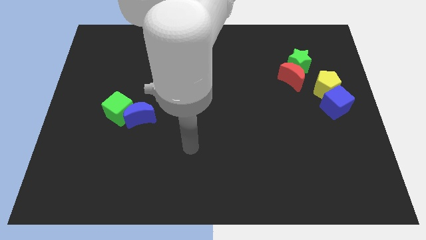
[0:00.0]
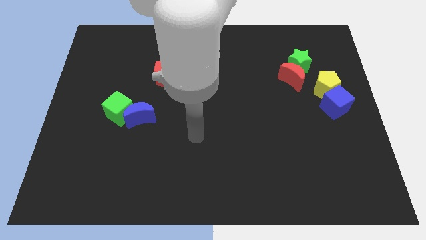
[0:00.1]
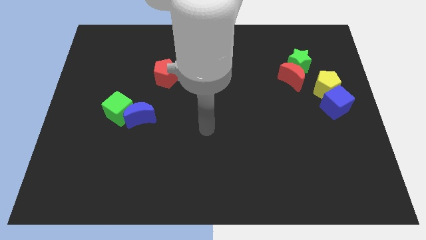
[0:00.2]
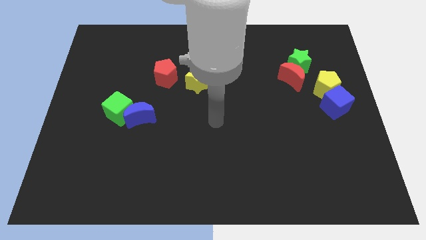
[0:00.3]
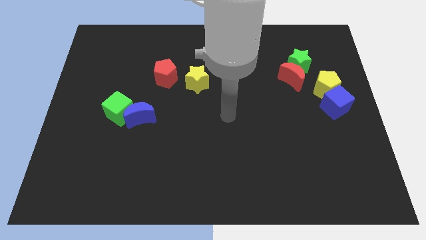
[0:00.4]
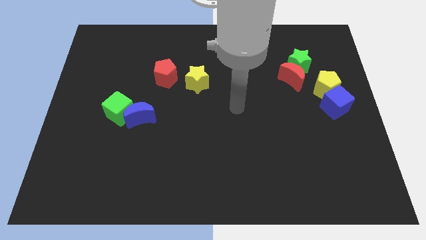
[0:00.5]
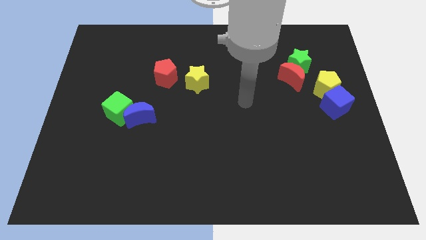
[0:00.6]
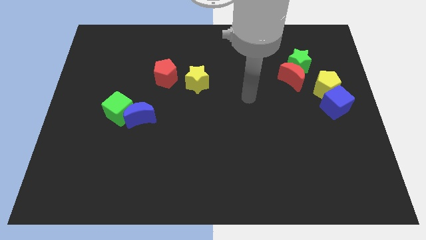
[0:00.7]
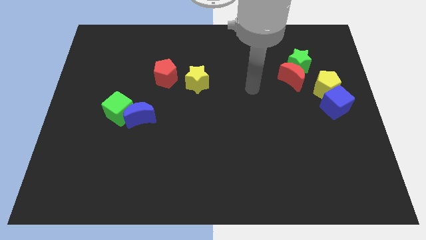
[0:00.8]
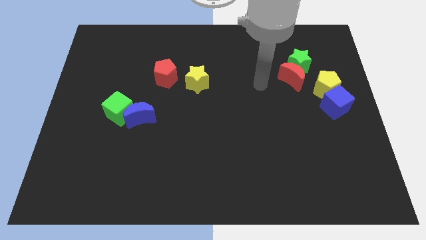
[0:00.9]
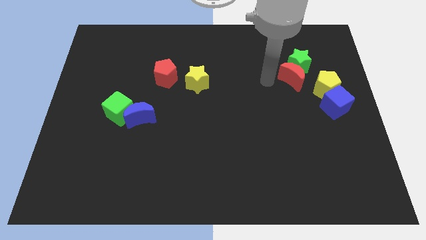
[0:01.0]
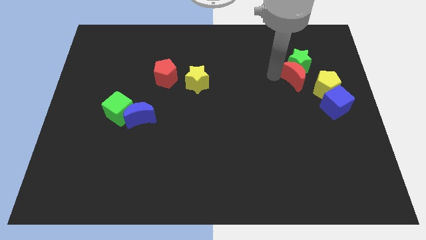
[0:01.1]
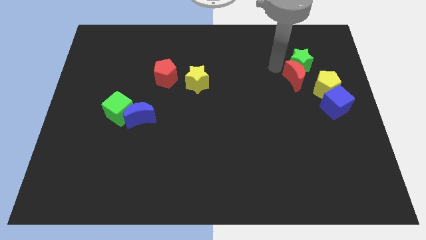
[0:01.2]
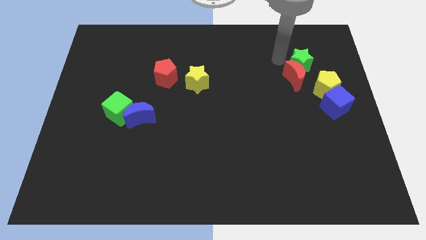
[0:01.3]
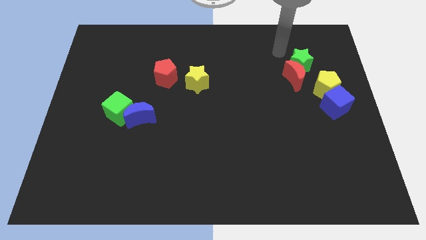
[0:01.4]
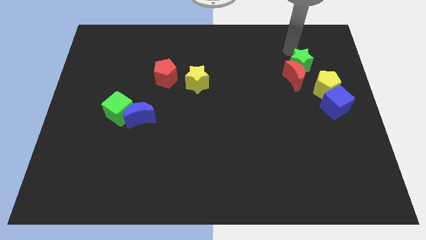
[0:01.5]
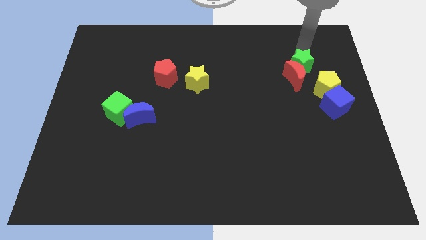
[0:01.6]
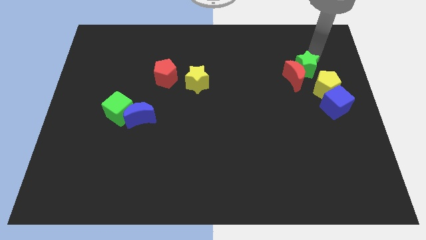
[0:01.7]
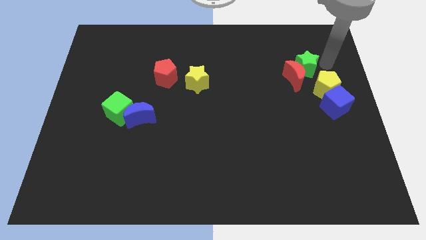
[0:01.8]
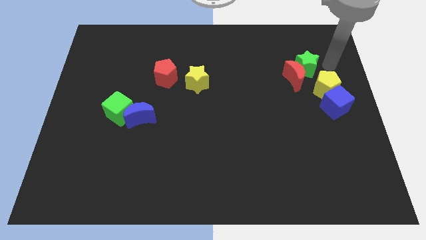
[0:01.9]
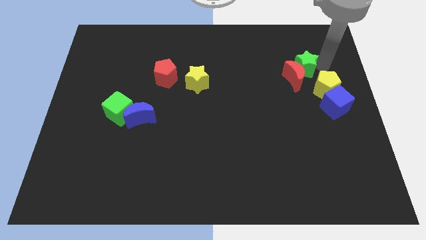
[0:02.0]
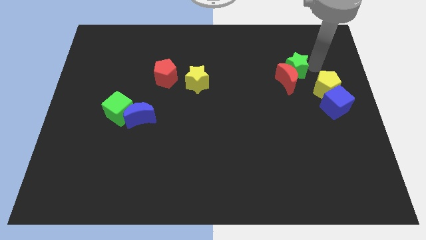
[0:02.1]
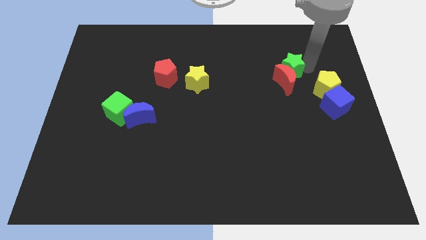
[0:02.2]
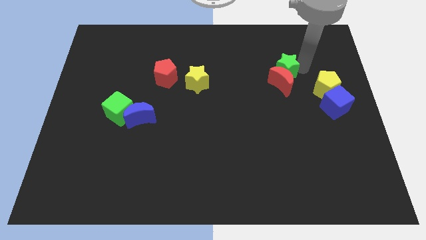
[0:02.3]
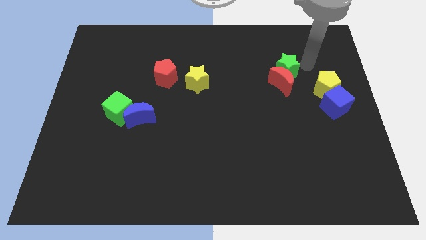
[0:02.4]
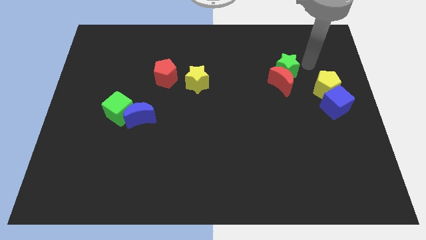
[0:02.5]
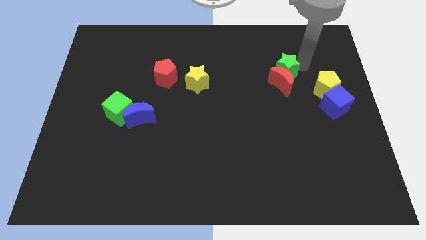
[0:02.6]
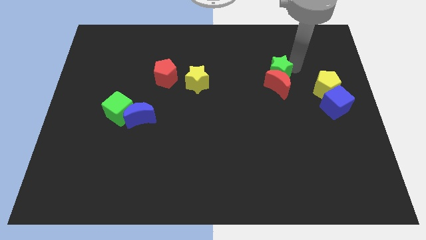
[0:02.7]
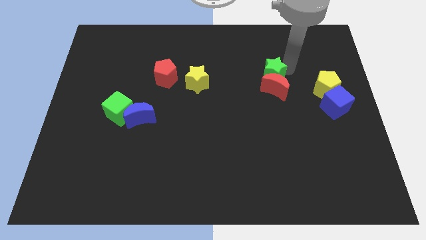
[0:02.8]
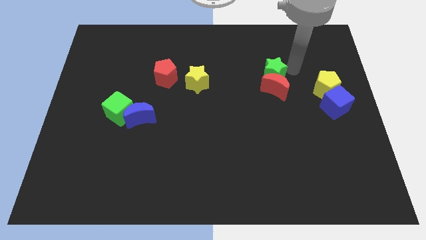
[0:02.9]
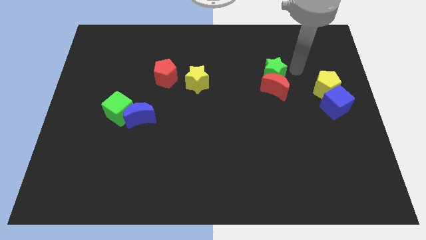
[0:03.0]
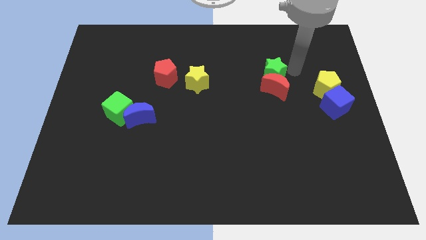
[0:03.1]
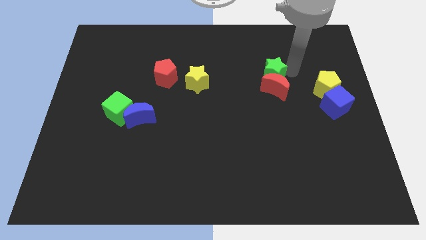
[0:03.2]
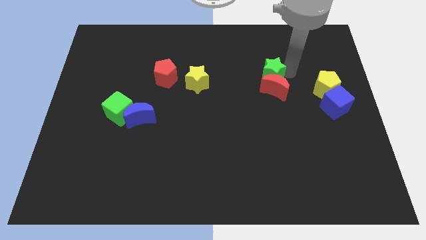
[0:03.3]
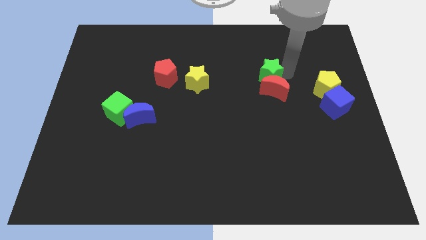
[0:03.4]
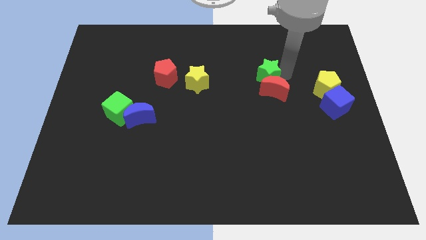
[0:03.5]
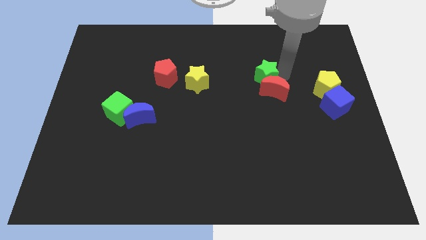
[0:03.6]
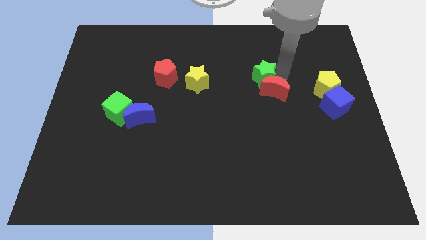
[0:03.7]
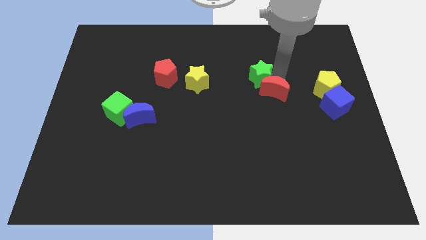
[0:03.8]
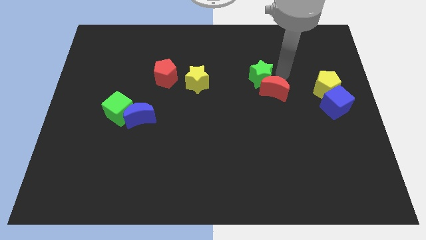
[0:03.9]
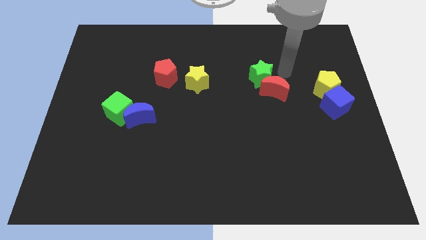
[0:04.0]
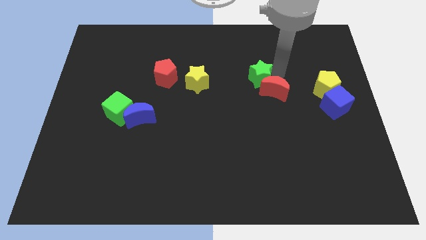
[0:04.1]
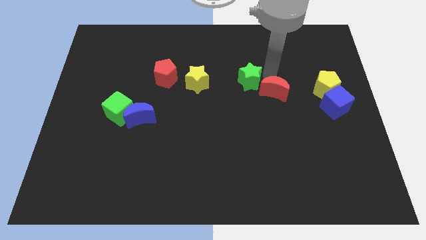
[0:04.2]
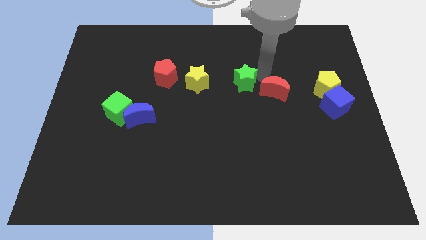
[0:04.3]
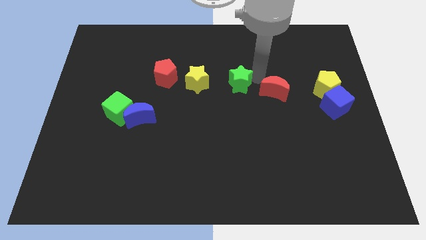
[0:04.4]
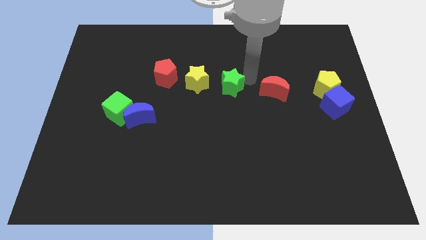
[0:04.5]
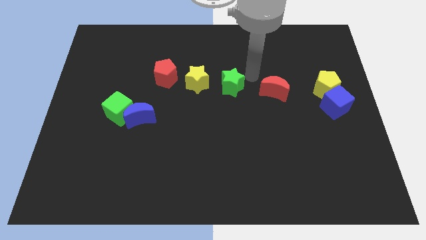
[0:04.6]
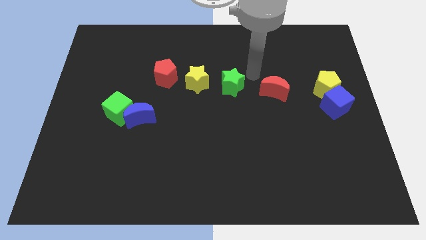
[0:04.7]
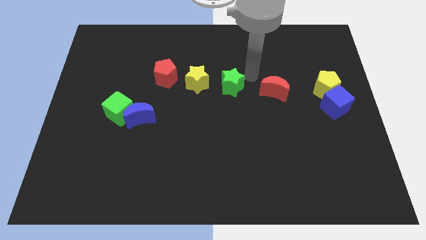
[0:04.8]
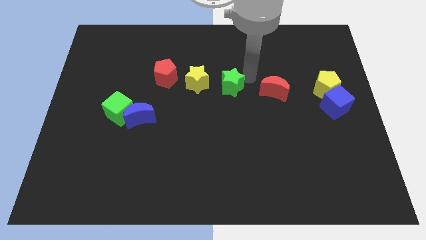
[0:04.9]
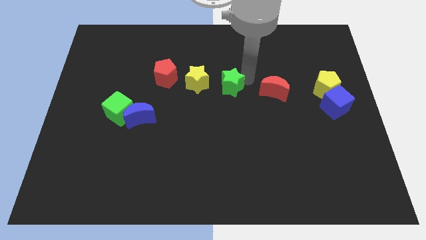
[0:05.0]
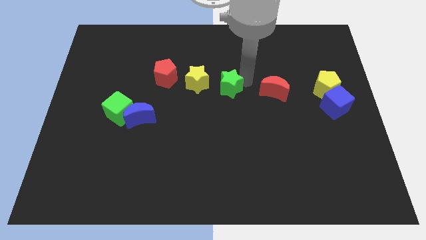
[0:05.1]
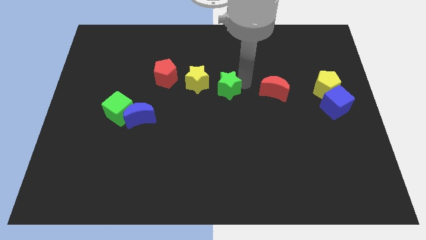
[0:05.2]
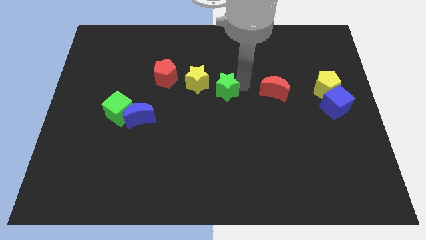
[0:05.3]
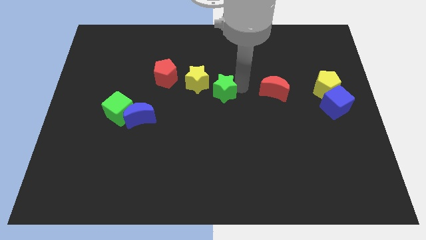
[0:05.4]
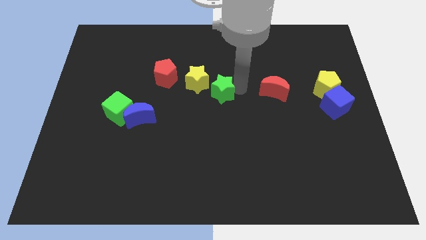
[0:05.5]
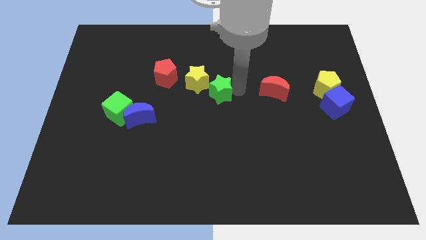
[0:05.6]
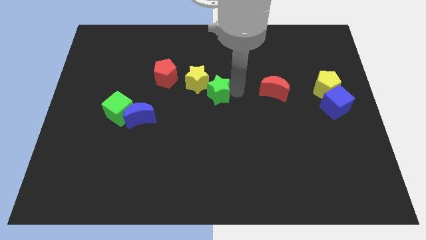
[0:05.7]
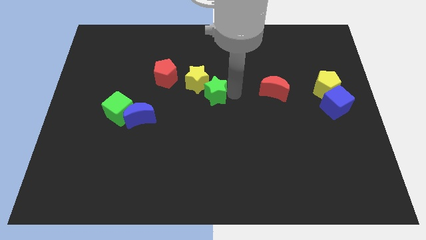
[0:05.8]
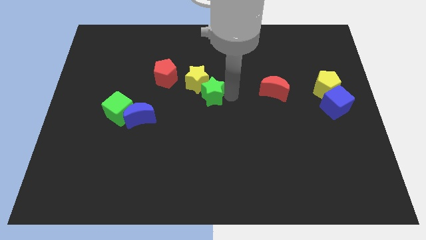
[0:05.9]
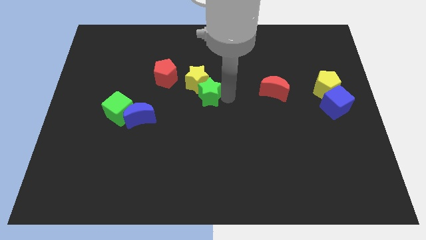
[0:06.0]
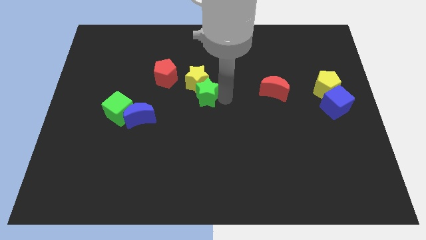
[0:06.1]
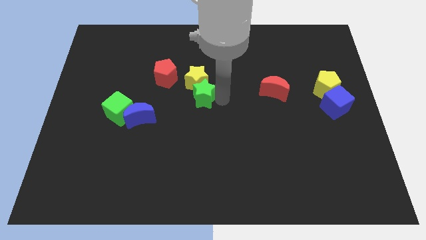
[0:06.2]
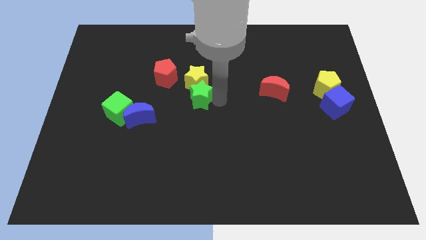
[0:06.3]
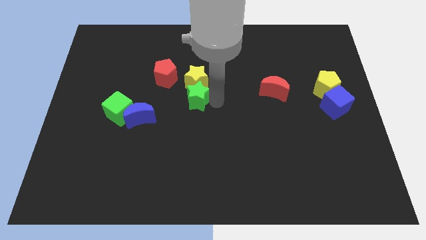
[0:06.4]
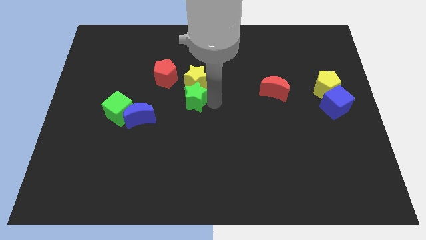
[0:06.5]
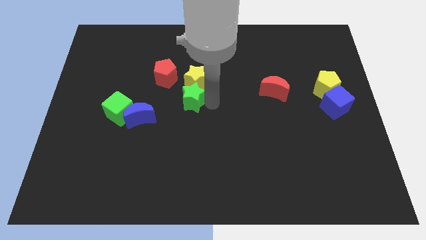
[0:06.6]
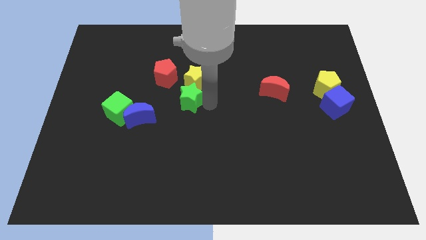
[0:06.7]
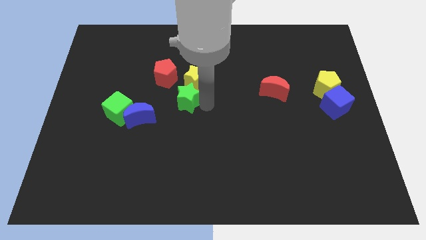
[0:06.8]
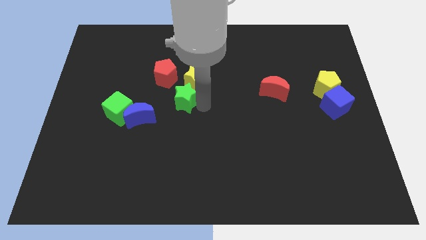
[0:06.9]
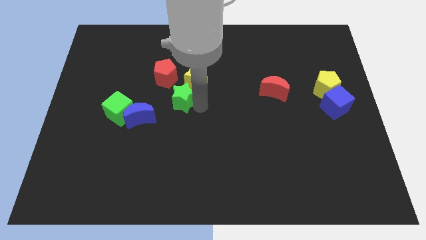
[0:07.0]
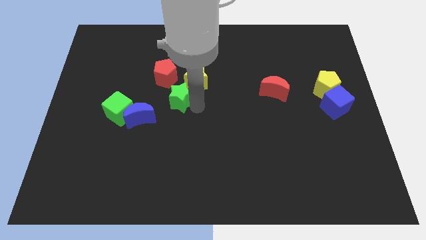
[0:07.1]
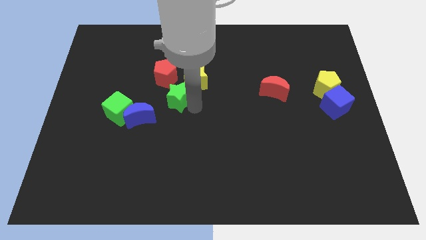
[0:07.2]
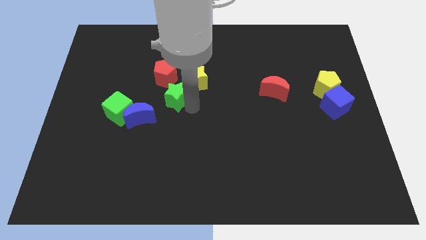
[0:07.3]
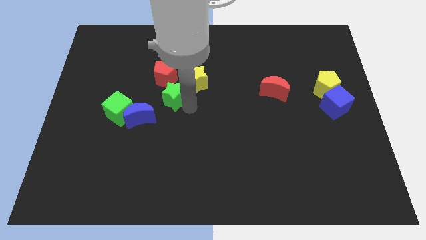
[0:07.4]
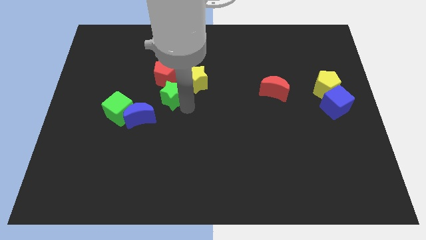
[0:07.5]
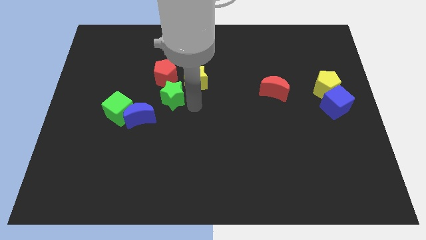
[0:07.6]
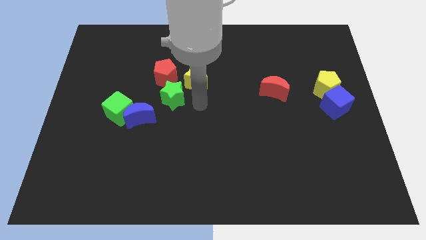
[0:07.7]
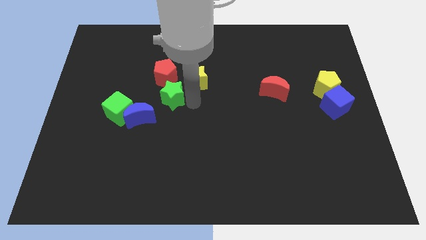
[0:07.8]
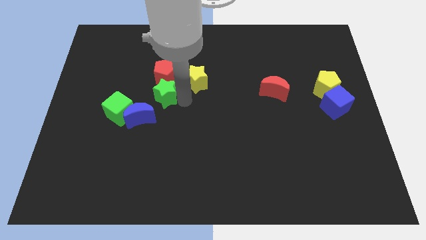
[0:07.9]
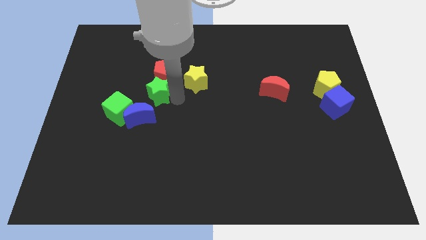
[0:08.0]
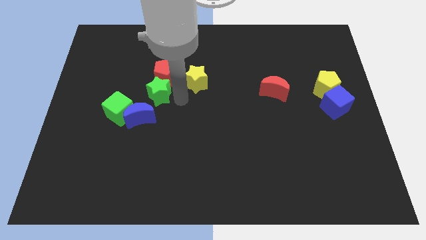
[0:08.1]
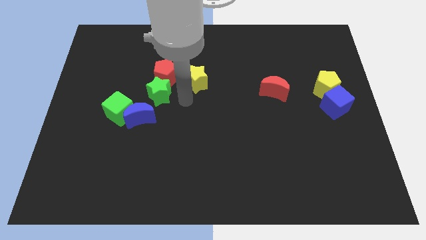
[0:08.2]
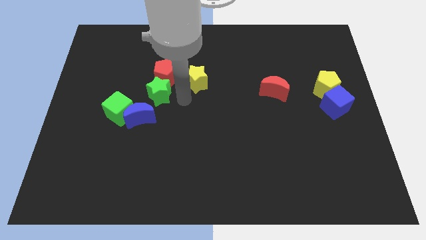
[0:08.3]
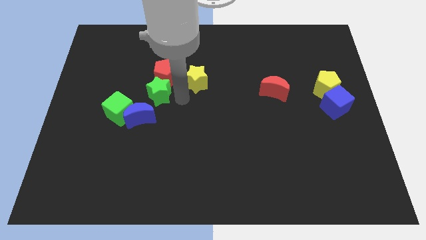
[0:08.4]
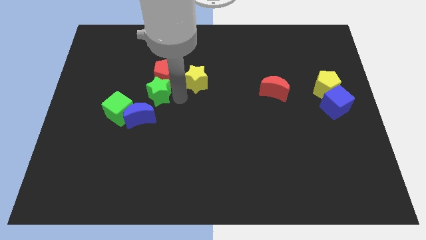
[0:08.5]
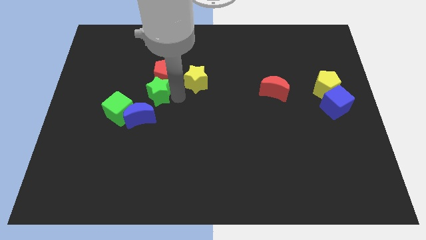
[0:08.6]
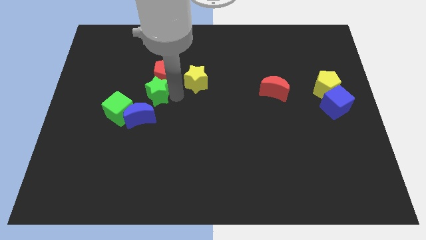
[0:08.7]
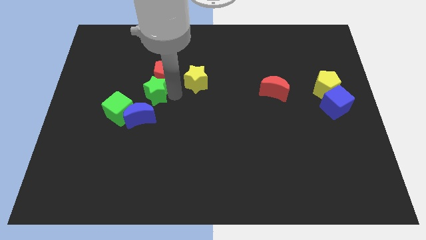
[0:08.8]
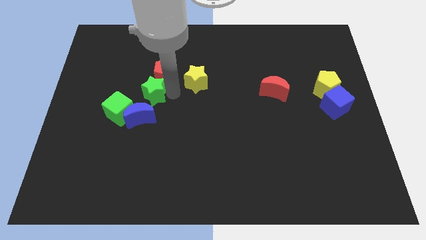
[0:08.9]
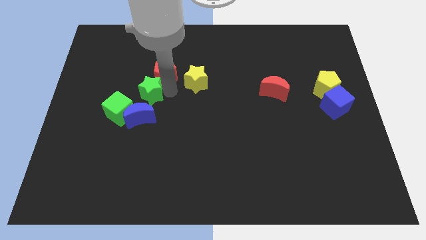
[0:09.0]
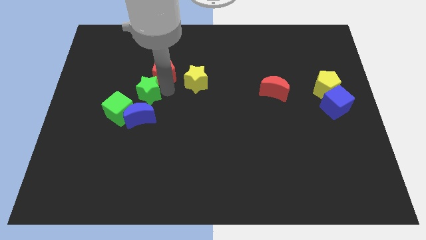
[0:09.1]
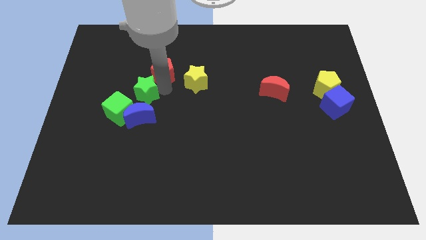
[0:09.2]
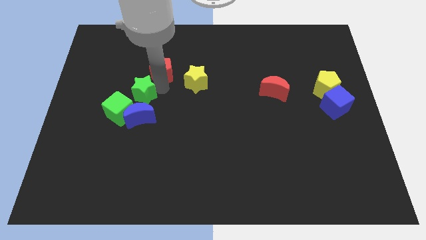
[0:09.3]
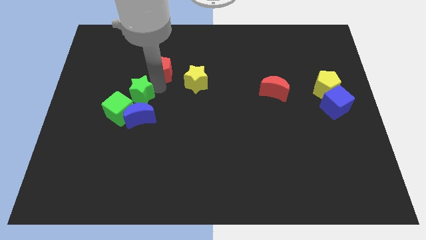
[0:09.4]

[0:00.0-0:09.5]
slide the green star to the top left of the blue moon
